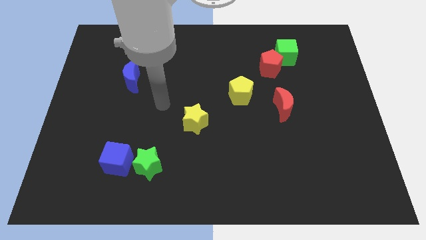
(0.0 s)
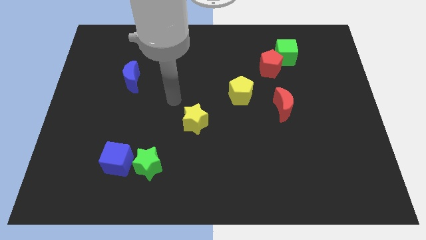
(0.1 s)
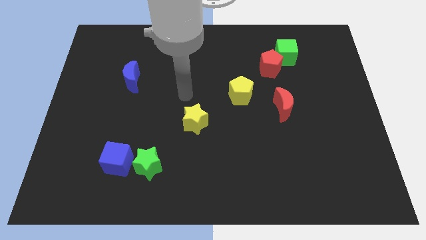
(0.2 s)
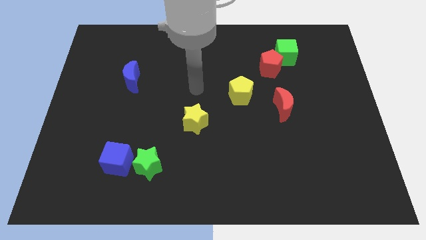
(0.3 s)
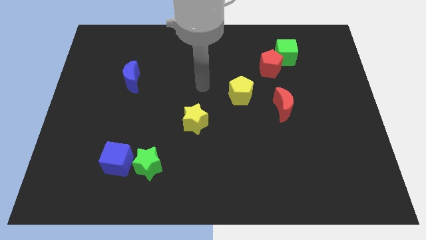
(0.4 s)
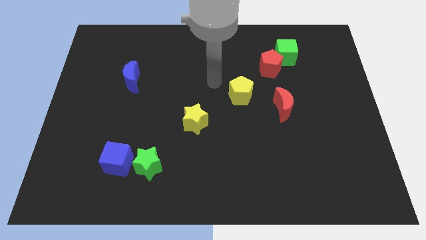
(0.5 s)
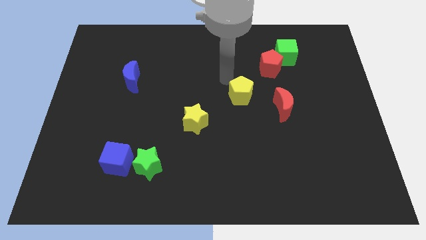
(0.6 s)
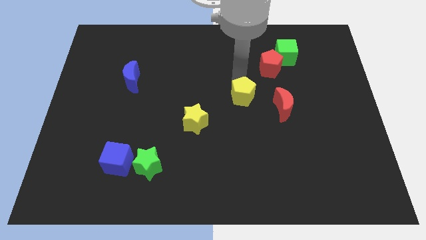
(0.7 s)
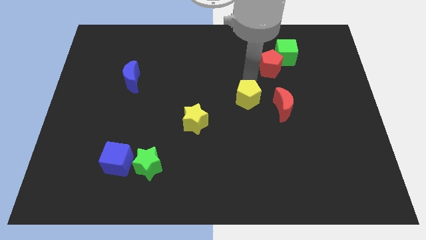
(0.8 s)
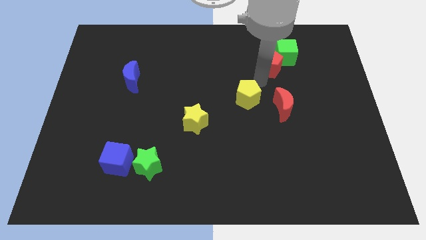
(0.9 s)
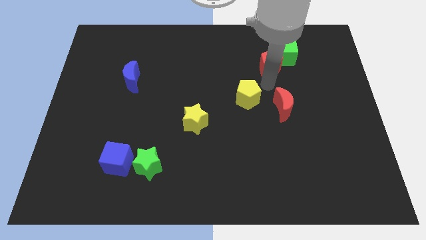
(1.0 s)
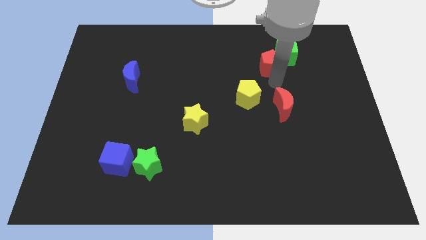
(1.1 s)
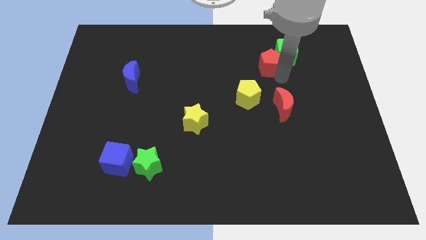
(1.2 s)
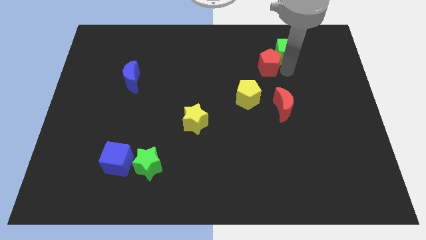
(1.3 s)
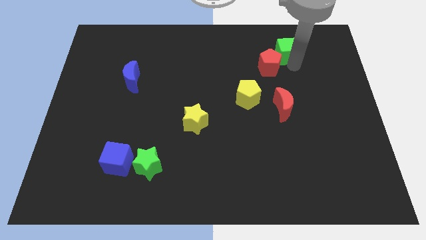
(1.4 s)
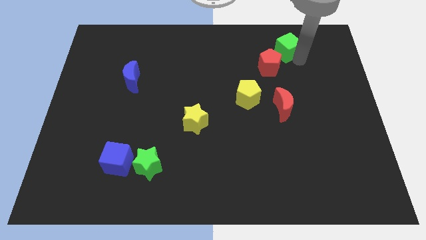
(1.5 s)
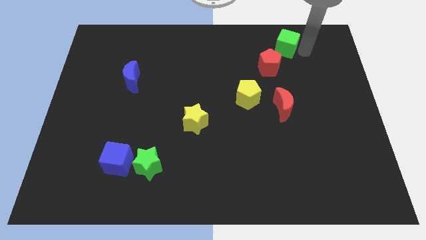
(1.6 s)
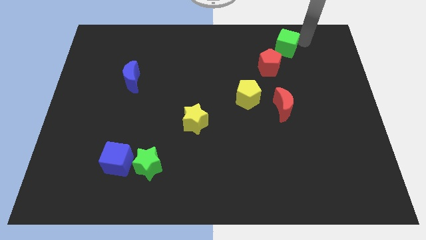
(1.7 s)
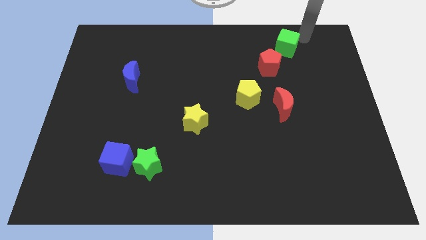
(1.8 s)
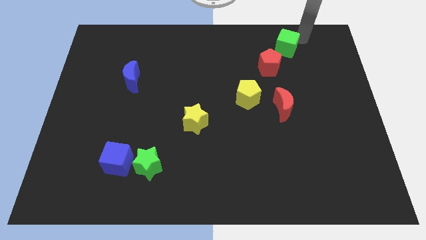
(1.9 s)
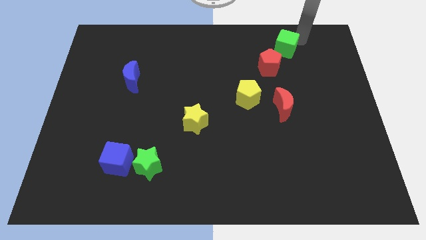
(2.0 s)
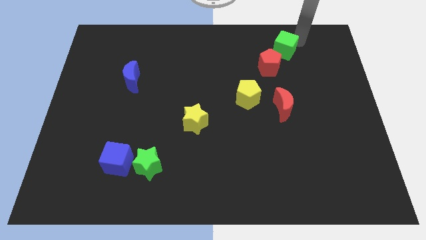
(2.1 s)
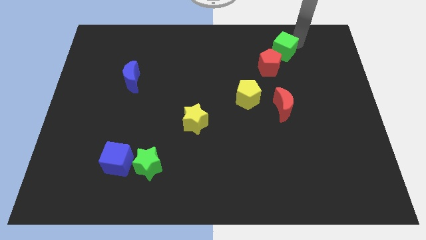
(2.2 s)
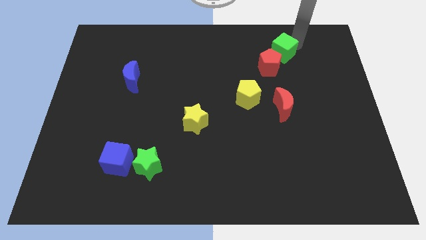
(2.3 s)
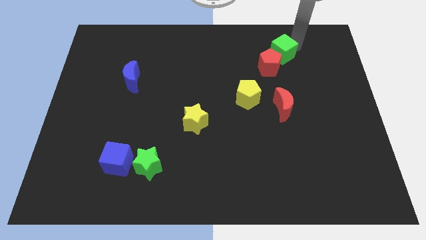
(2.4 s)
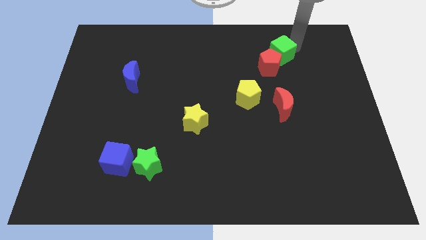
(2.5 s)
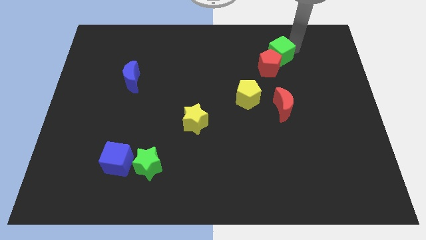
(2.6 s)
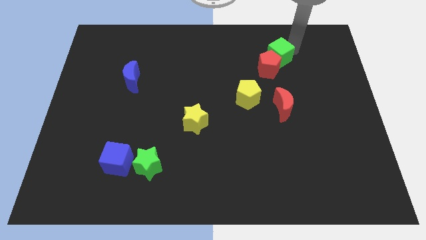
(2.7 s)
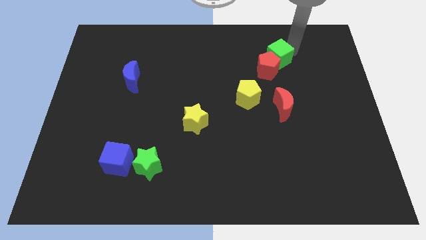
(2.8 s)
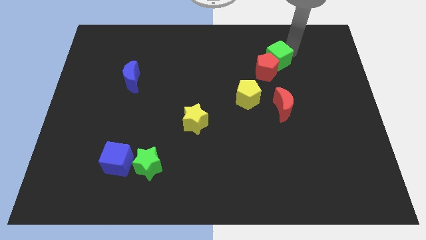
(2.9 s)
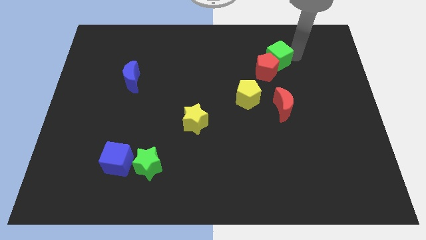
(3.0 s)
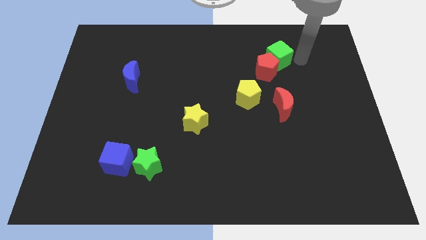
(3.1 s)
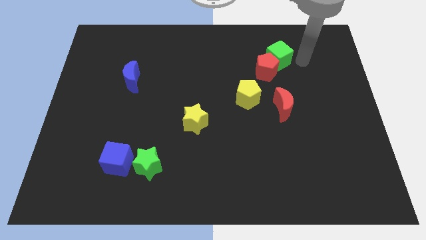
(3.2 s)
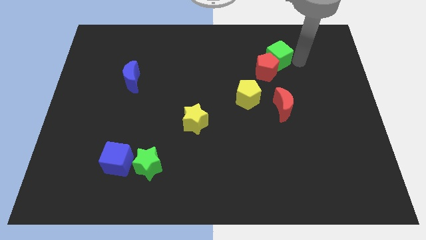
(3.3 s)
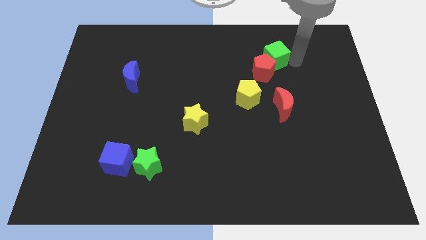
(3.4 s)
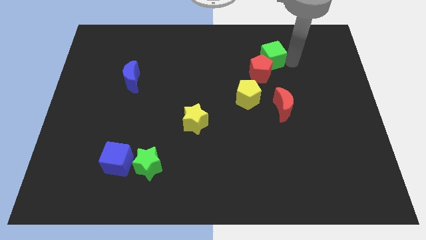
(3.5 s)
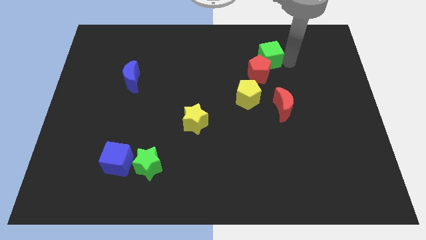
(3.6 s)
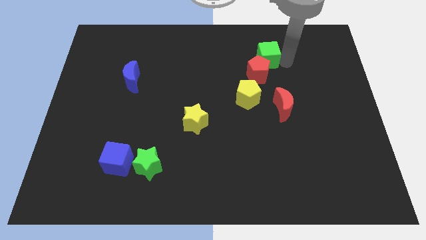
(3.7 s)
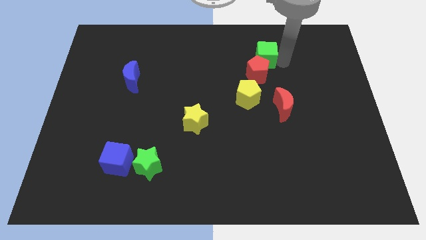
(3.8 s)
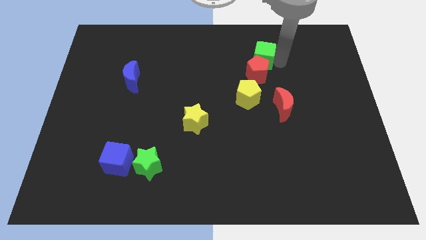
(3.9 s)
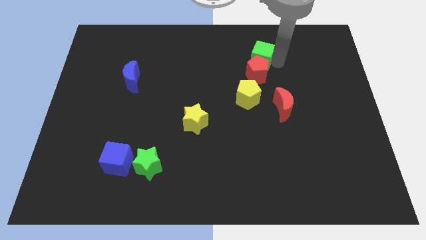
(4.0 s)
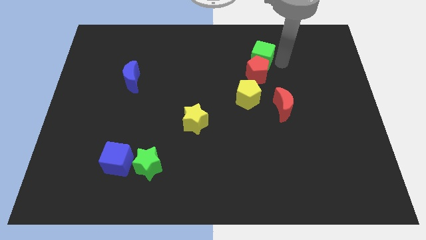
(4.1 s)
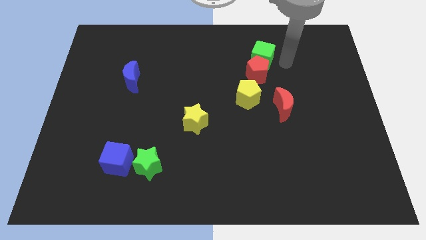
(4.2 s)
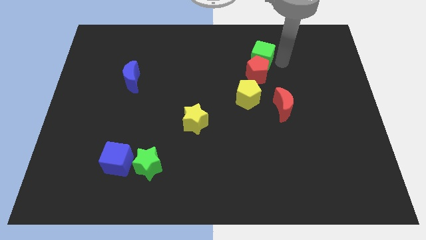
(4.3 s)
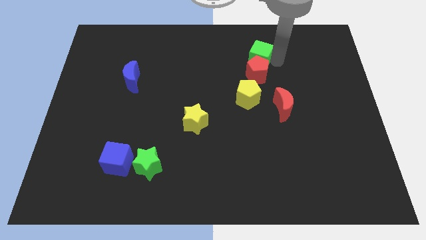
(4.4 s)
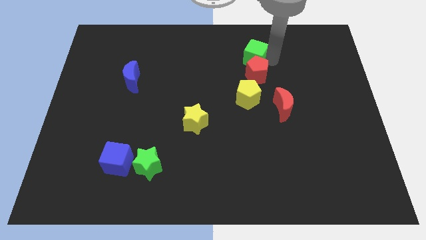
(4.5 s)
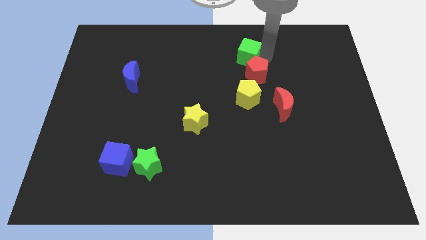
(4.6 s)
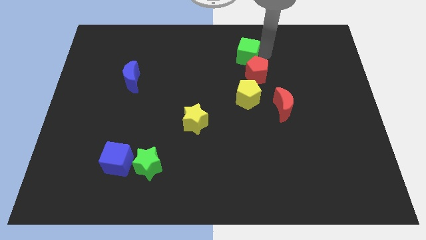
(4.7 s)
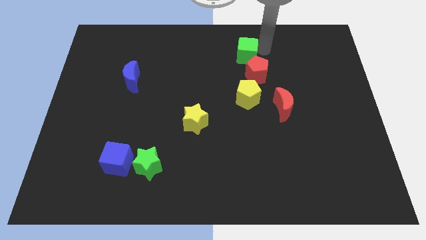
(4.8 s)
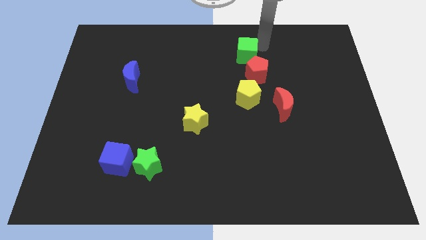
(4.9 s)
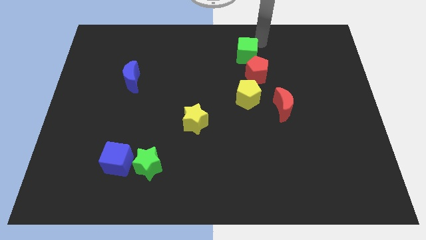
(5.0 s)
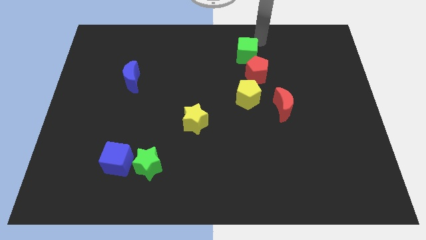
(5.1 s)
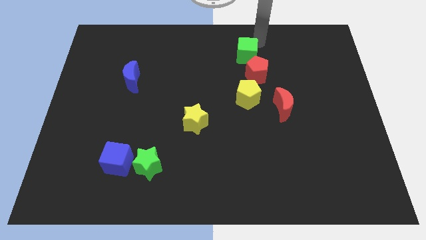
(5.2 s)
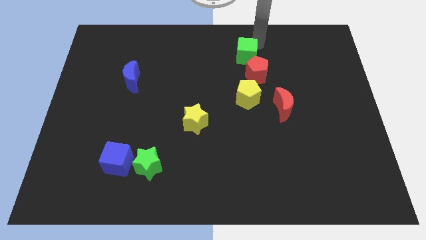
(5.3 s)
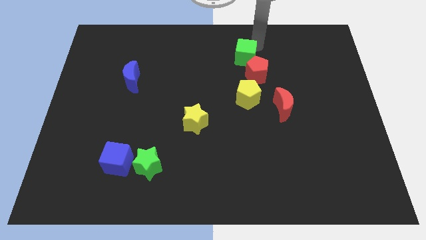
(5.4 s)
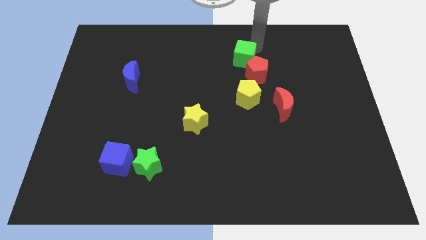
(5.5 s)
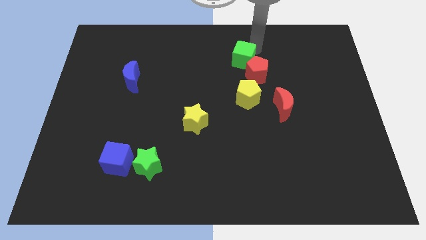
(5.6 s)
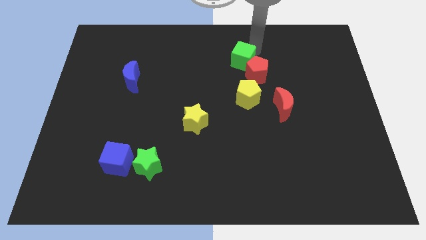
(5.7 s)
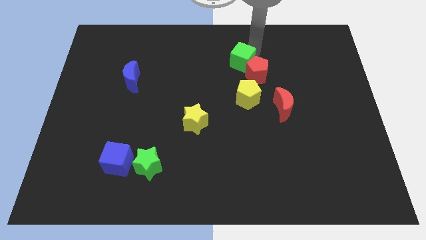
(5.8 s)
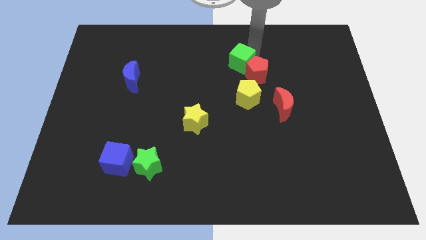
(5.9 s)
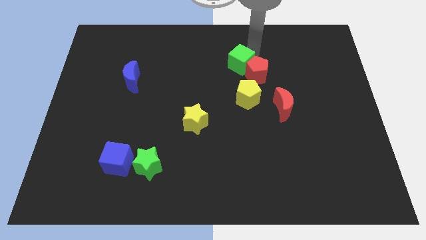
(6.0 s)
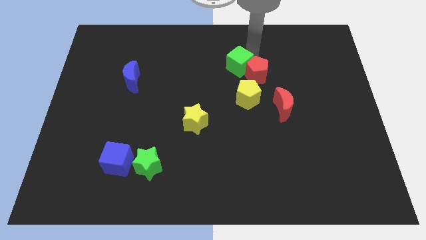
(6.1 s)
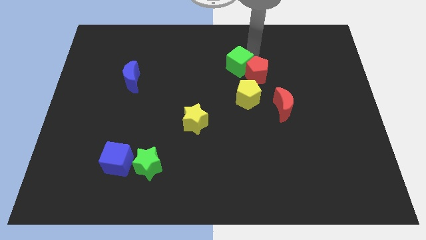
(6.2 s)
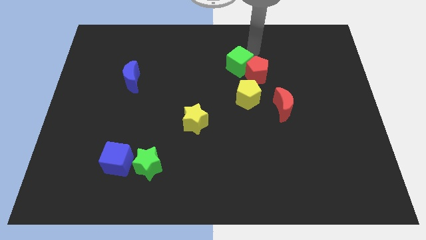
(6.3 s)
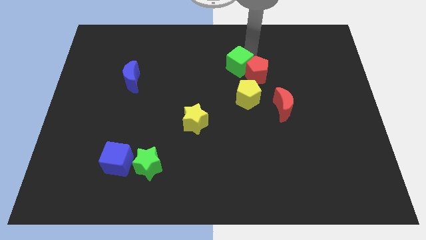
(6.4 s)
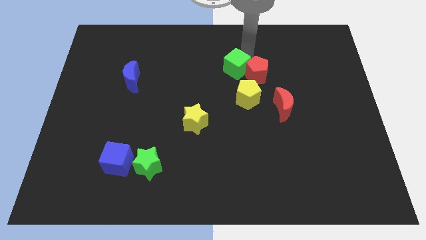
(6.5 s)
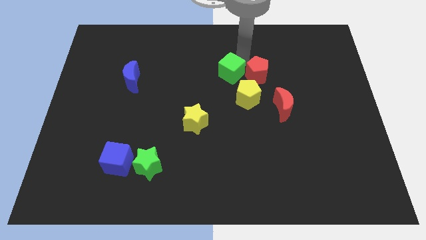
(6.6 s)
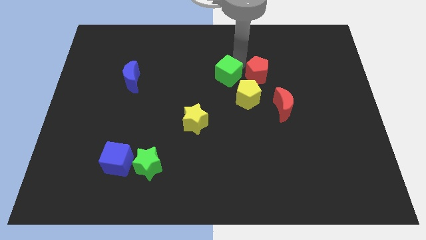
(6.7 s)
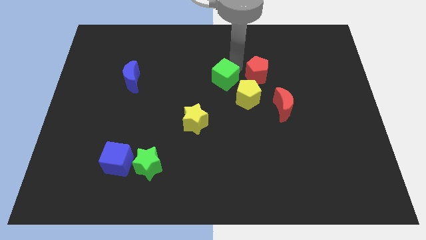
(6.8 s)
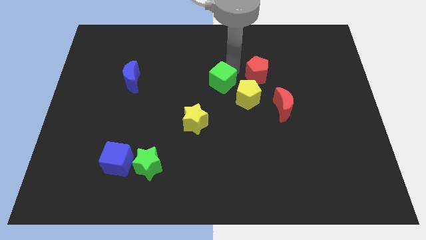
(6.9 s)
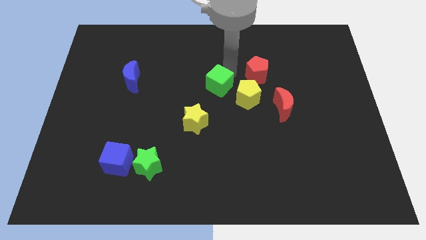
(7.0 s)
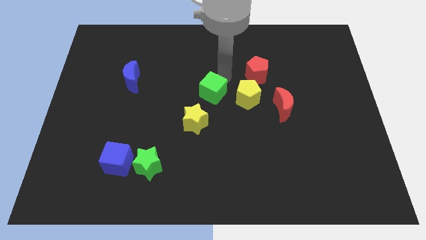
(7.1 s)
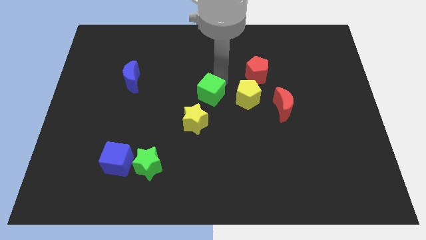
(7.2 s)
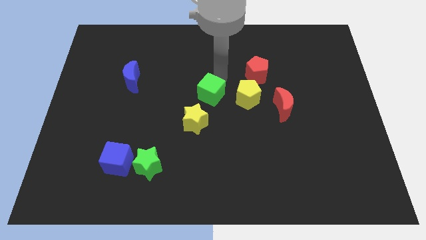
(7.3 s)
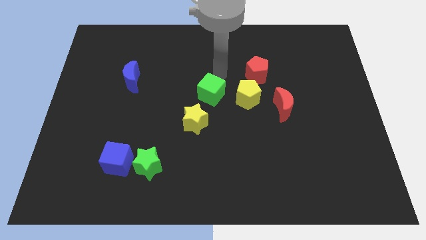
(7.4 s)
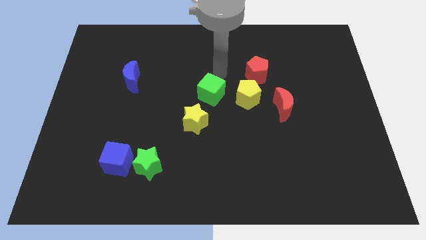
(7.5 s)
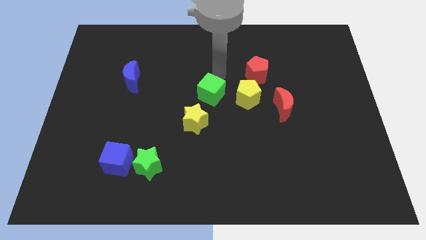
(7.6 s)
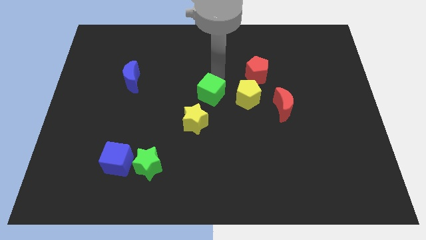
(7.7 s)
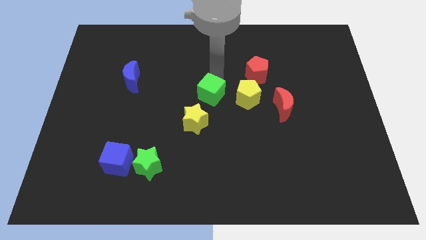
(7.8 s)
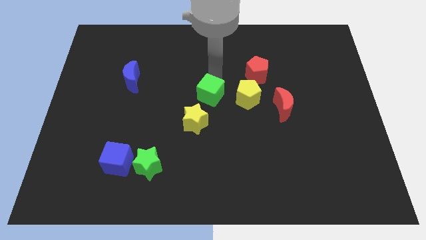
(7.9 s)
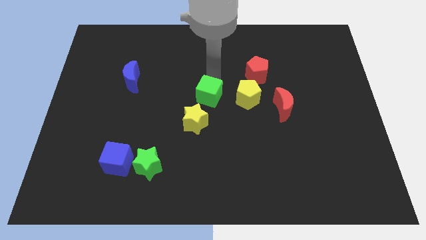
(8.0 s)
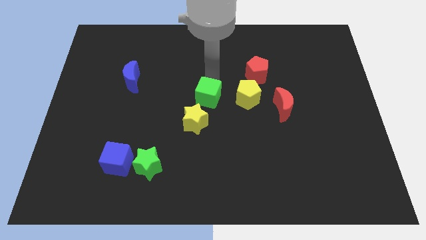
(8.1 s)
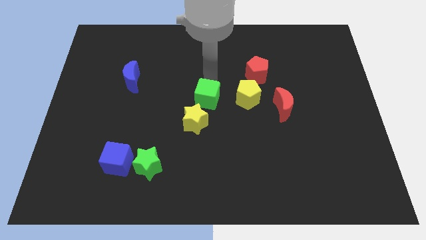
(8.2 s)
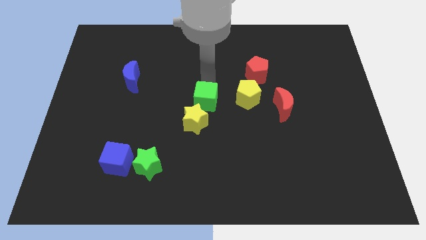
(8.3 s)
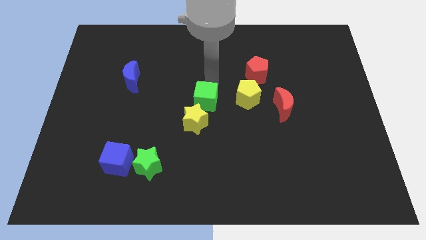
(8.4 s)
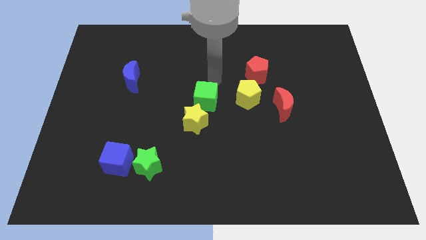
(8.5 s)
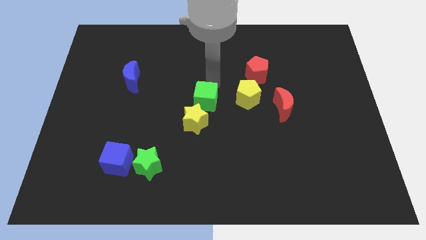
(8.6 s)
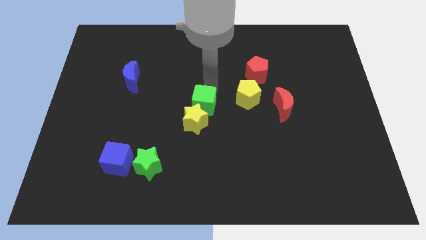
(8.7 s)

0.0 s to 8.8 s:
put the green cube towards the yellow star
